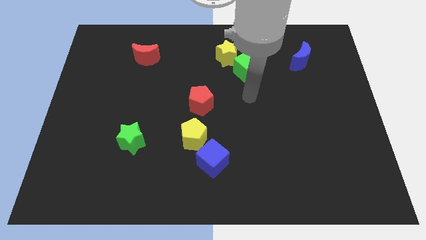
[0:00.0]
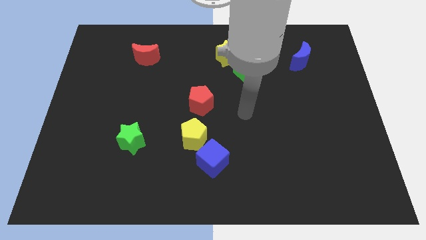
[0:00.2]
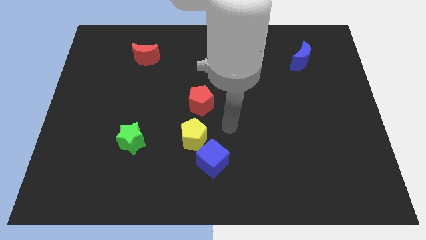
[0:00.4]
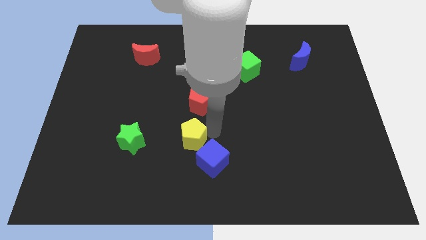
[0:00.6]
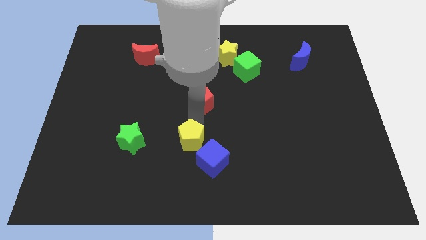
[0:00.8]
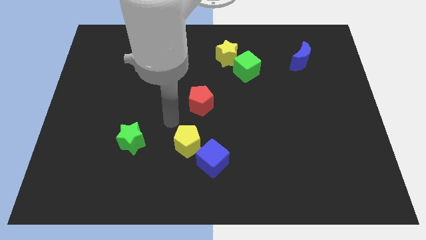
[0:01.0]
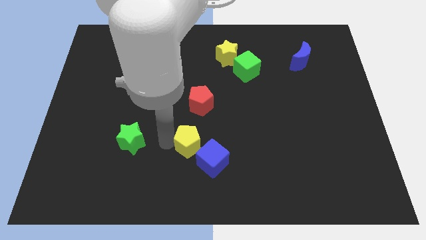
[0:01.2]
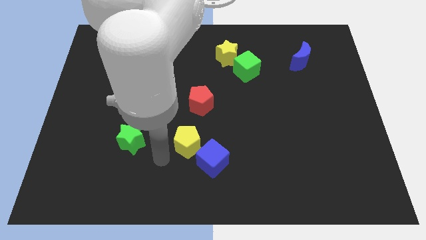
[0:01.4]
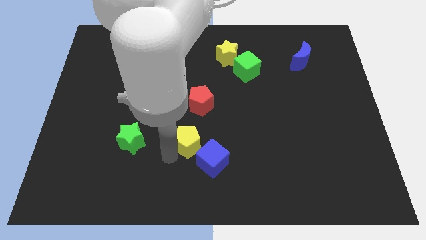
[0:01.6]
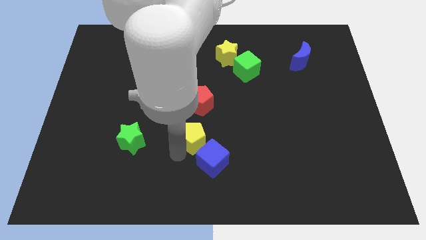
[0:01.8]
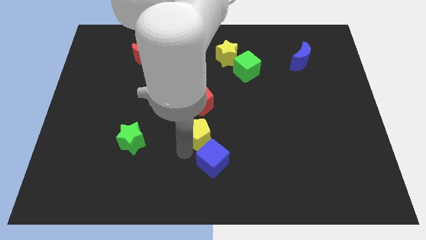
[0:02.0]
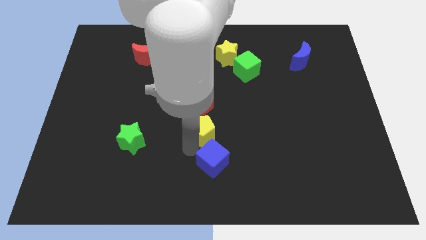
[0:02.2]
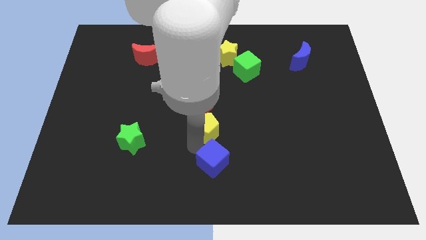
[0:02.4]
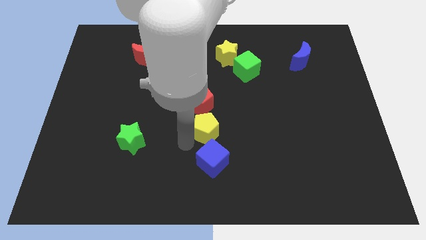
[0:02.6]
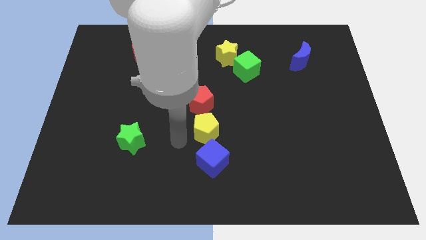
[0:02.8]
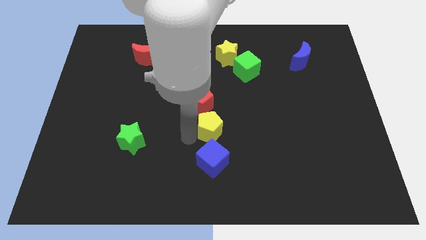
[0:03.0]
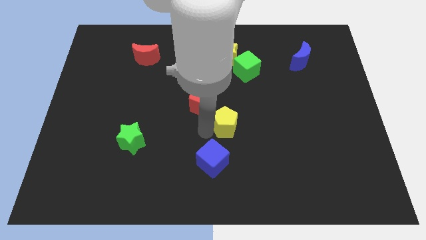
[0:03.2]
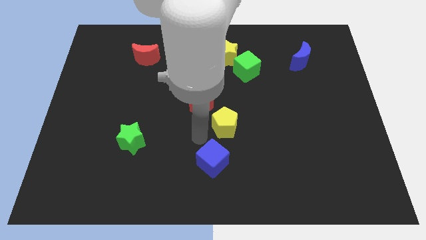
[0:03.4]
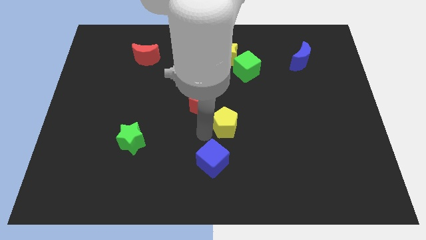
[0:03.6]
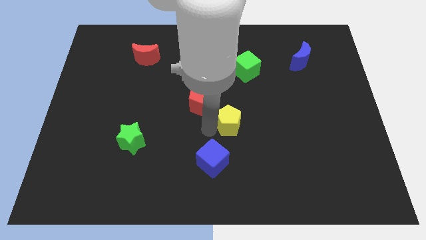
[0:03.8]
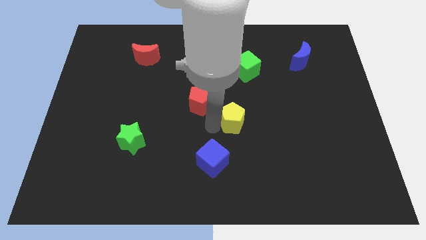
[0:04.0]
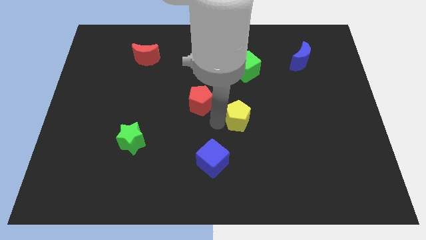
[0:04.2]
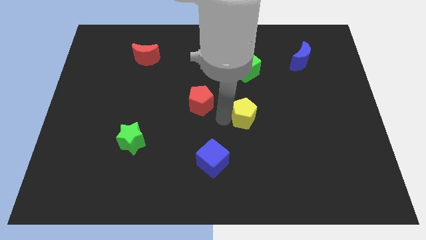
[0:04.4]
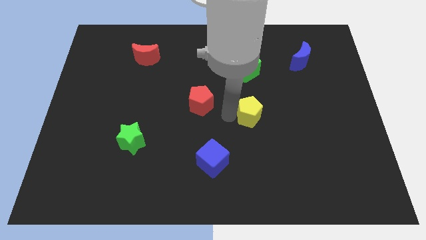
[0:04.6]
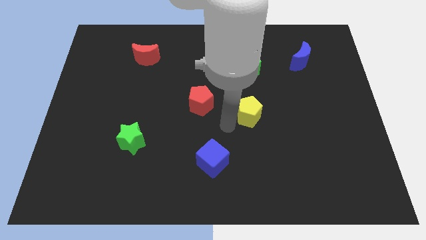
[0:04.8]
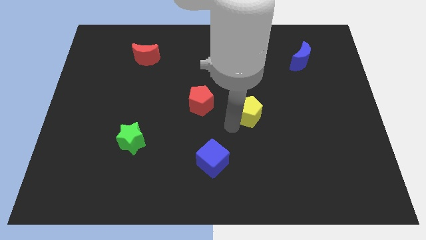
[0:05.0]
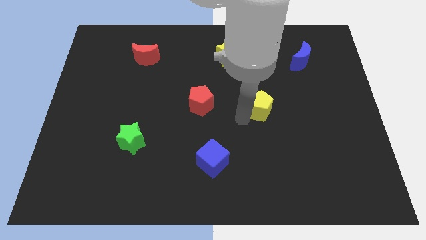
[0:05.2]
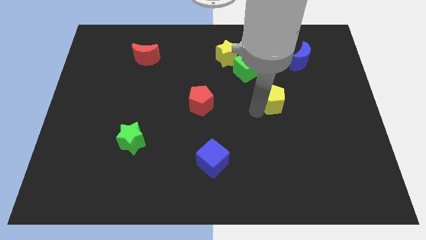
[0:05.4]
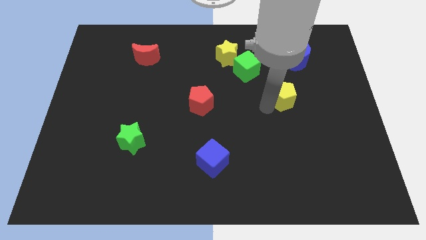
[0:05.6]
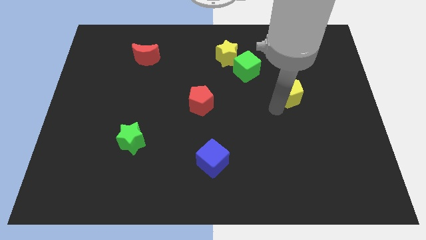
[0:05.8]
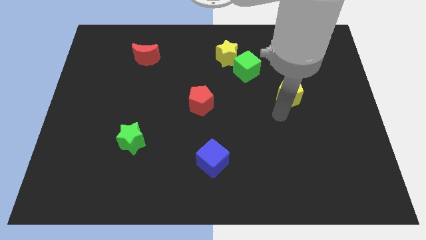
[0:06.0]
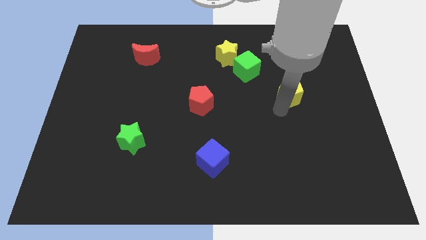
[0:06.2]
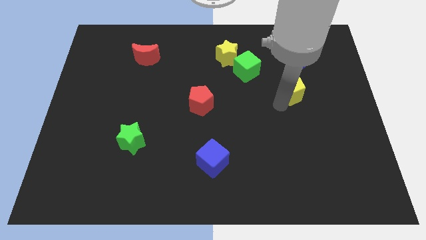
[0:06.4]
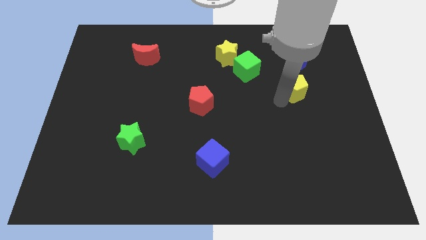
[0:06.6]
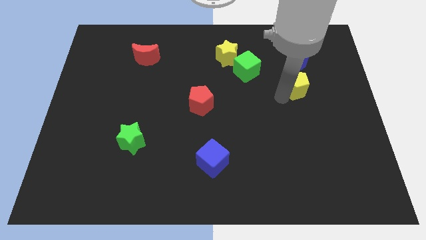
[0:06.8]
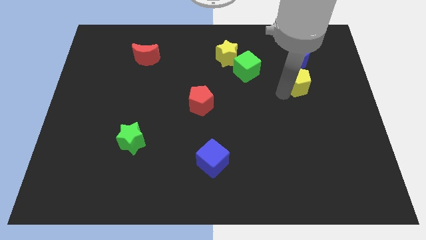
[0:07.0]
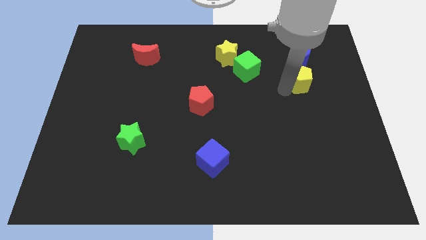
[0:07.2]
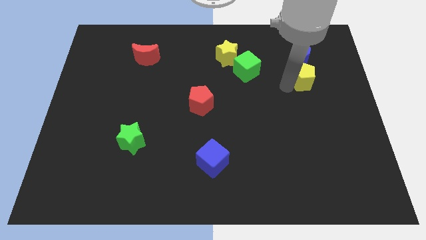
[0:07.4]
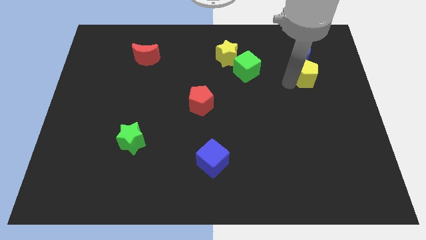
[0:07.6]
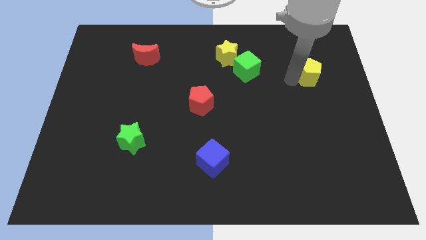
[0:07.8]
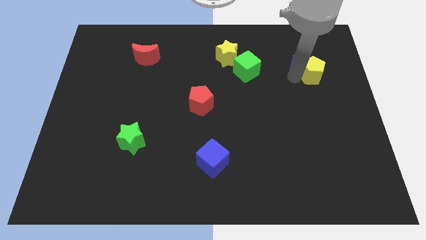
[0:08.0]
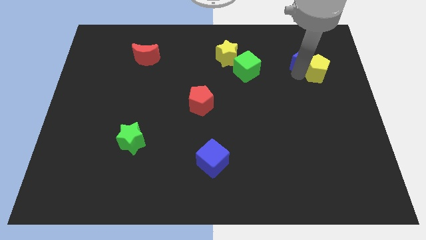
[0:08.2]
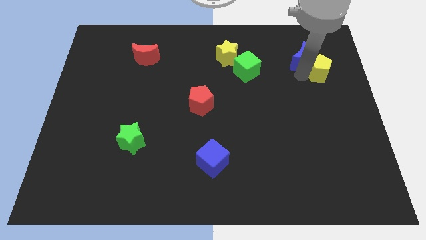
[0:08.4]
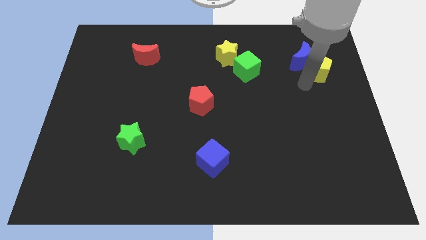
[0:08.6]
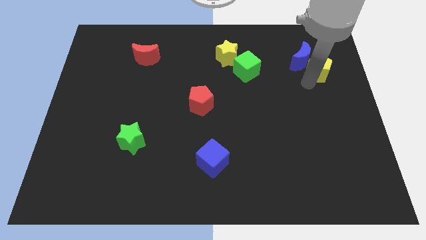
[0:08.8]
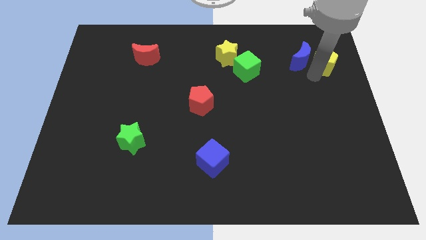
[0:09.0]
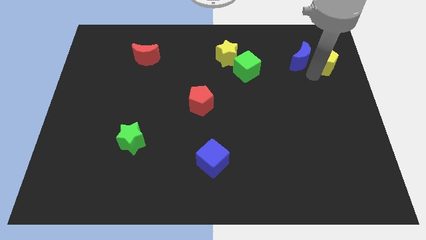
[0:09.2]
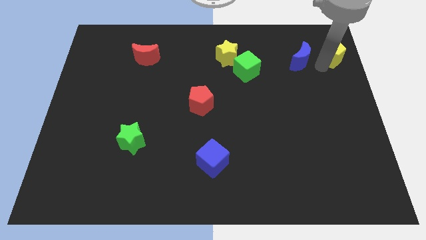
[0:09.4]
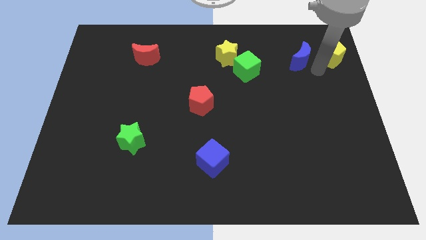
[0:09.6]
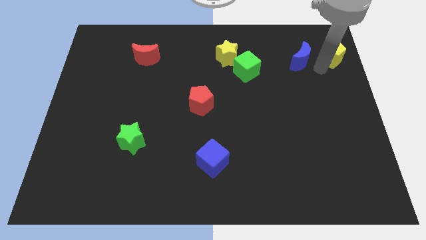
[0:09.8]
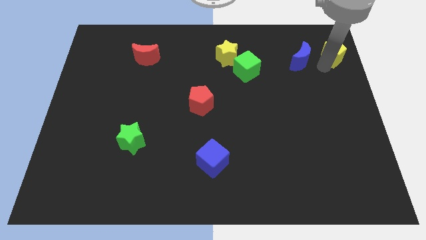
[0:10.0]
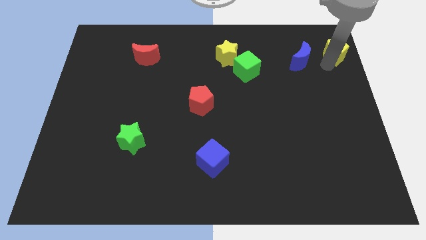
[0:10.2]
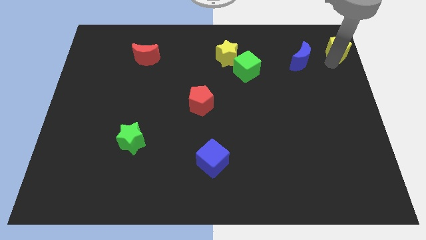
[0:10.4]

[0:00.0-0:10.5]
push the yellow pentagon to the top right

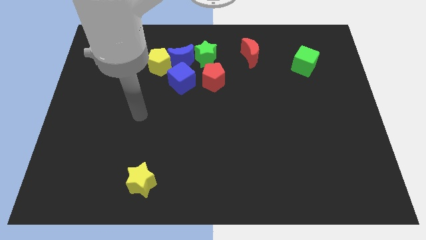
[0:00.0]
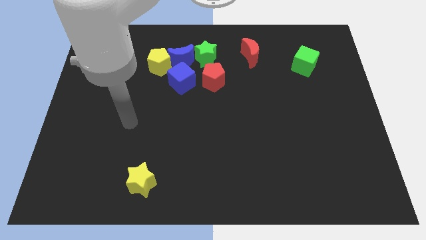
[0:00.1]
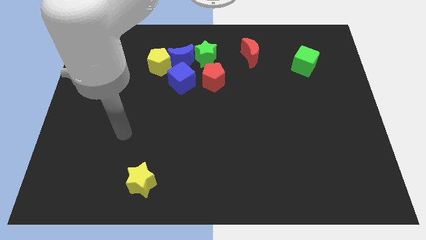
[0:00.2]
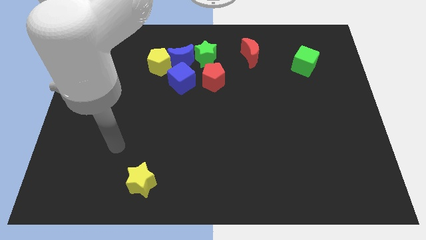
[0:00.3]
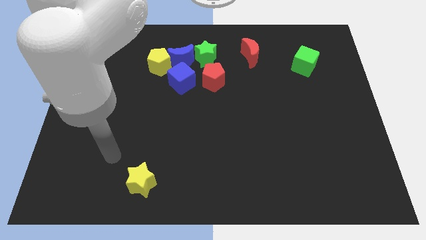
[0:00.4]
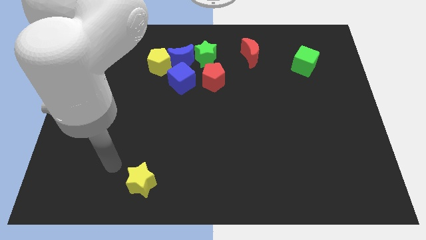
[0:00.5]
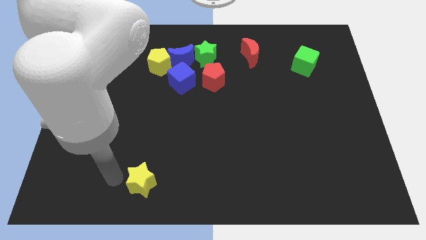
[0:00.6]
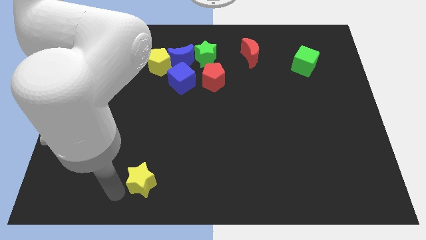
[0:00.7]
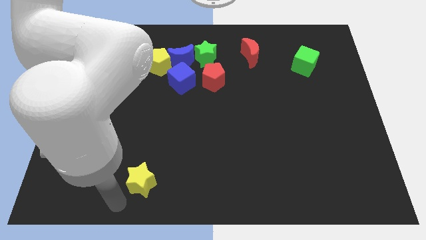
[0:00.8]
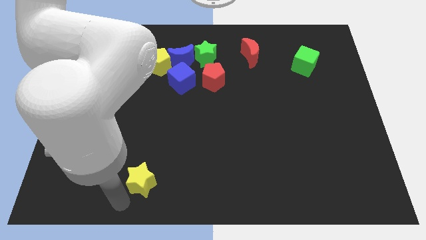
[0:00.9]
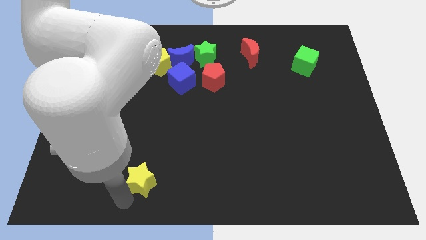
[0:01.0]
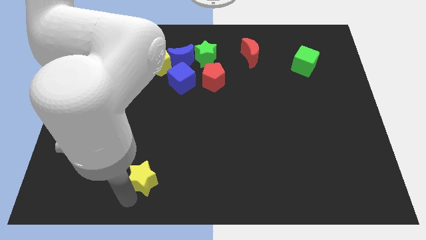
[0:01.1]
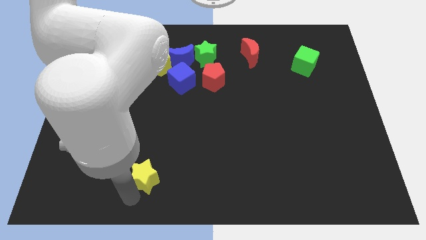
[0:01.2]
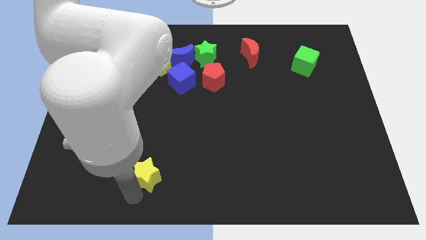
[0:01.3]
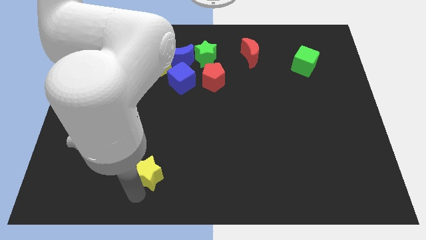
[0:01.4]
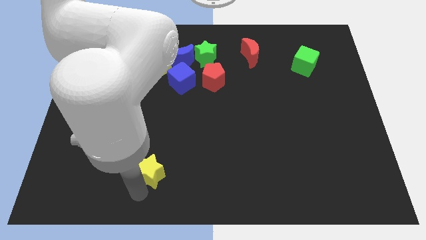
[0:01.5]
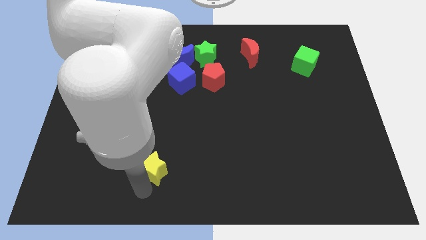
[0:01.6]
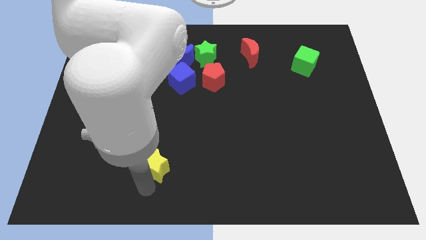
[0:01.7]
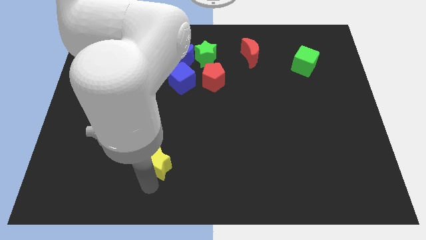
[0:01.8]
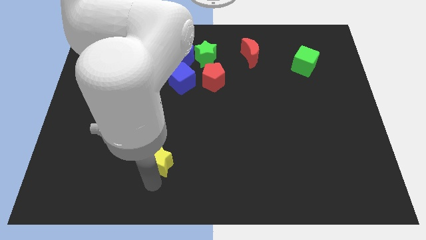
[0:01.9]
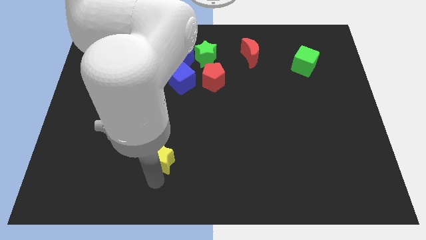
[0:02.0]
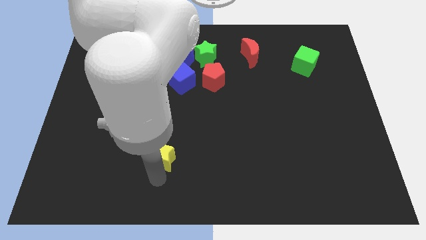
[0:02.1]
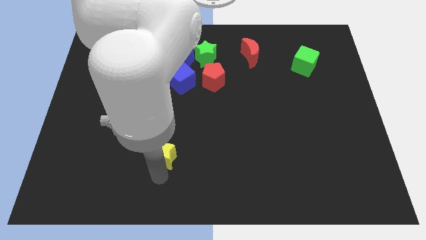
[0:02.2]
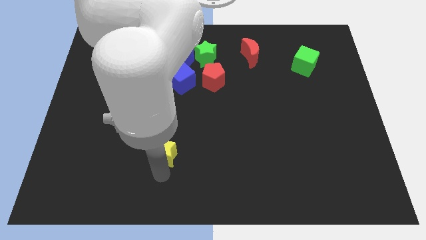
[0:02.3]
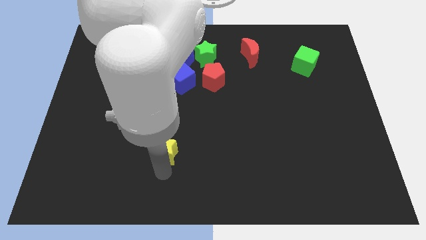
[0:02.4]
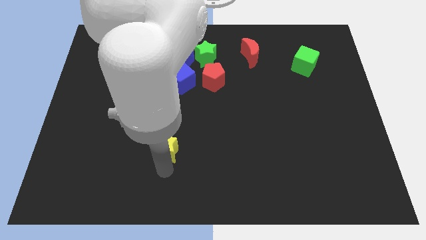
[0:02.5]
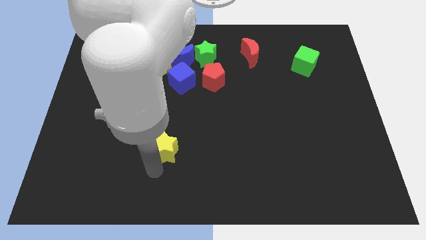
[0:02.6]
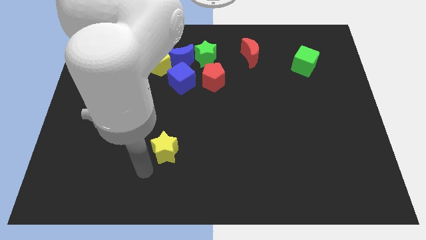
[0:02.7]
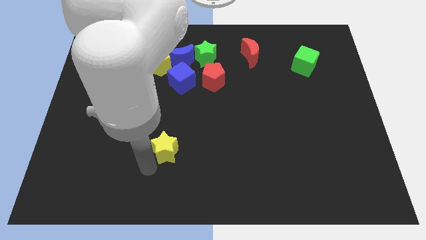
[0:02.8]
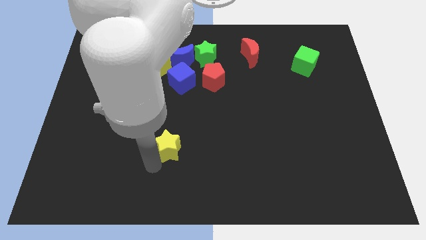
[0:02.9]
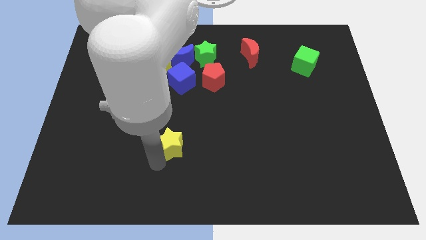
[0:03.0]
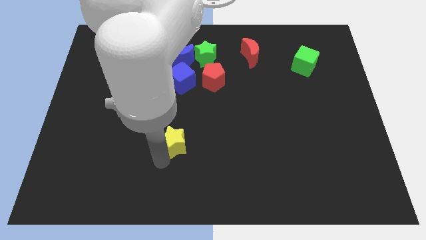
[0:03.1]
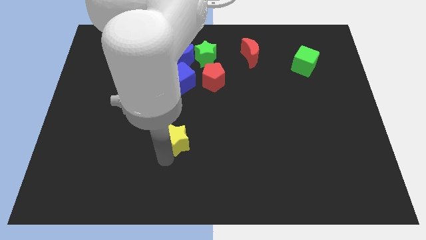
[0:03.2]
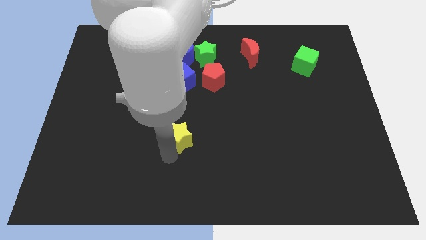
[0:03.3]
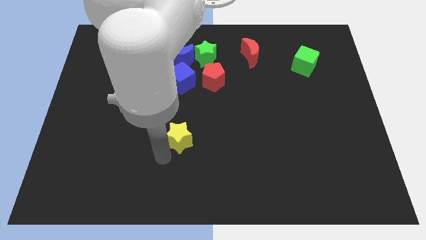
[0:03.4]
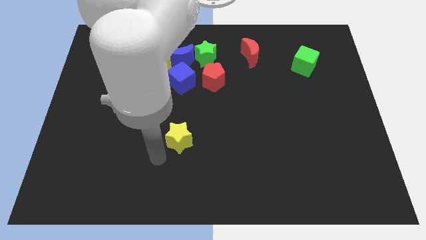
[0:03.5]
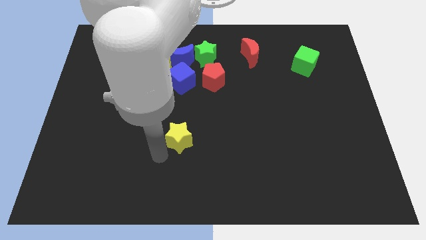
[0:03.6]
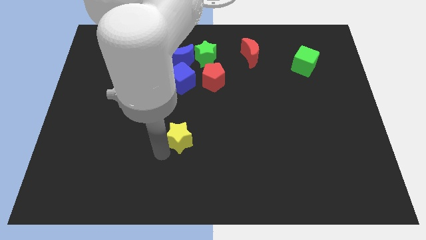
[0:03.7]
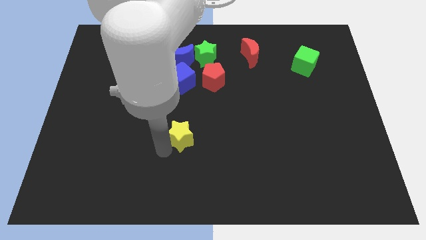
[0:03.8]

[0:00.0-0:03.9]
put the yellow star to the center of the board
